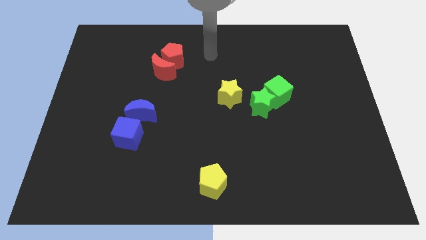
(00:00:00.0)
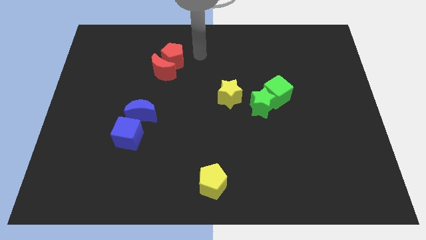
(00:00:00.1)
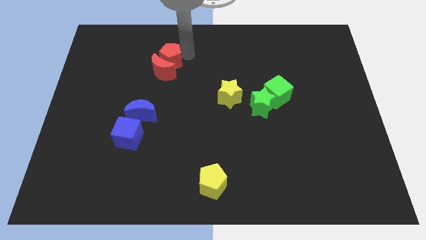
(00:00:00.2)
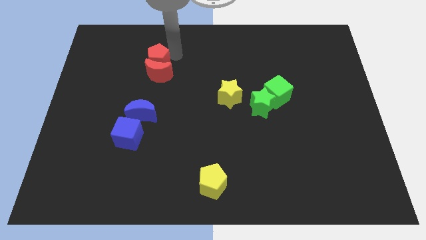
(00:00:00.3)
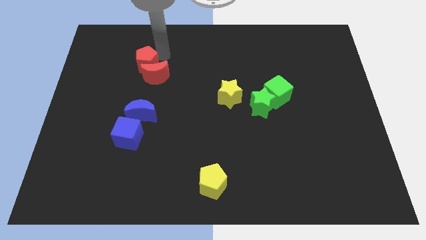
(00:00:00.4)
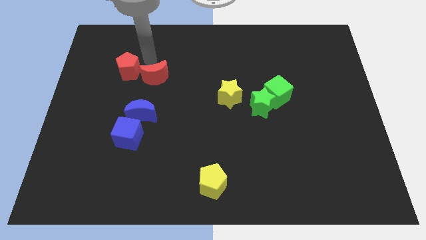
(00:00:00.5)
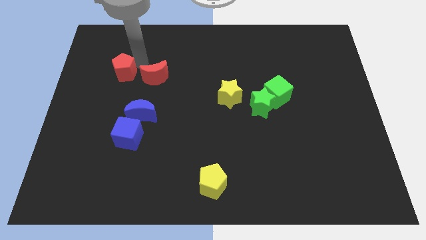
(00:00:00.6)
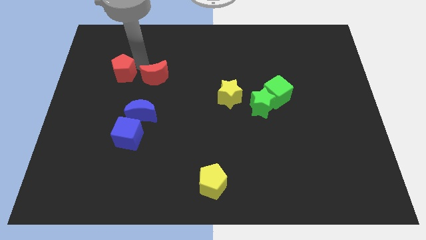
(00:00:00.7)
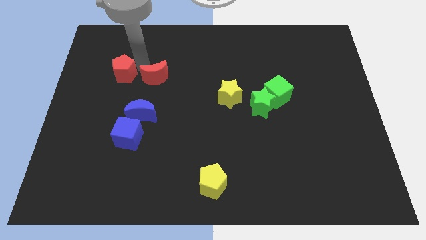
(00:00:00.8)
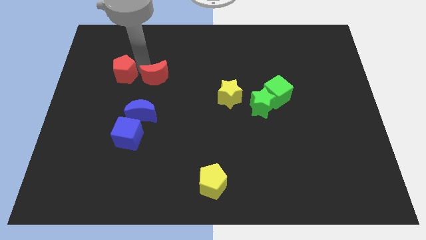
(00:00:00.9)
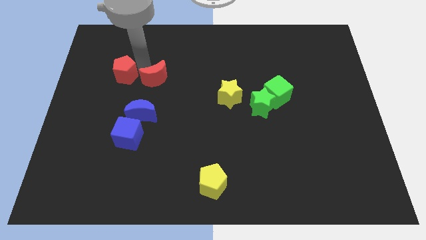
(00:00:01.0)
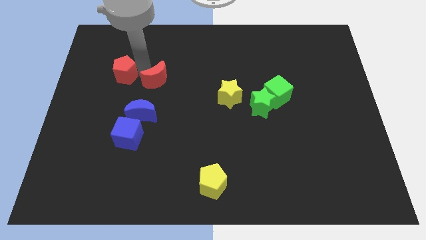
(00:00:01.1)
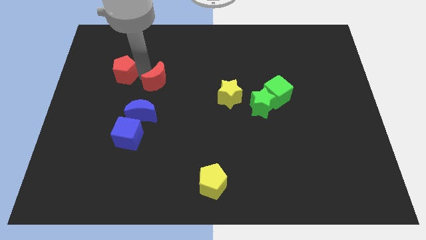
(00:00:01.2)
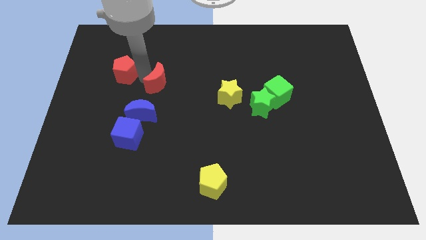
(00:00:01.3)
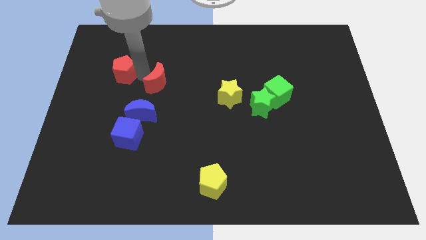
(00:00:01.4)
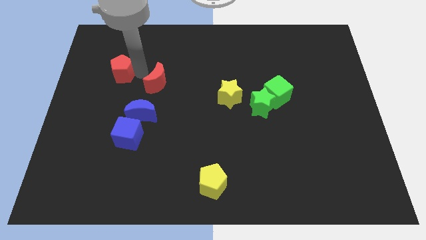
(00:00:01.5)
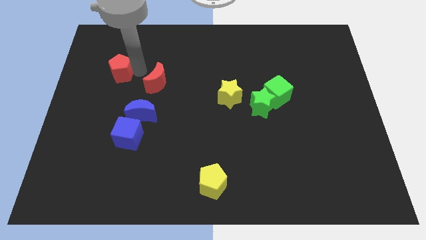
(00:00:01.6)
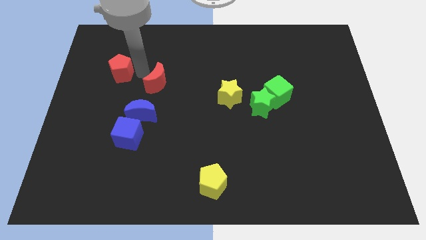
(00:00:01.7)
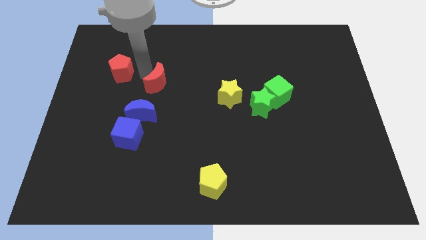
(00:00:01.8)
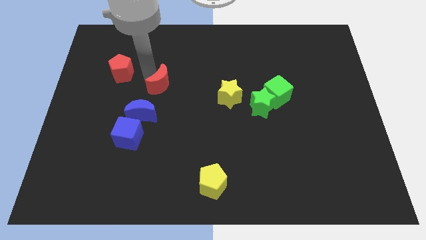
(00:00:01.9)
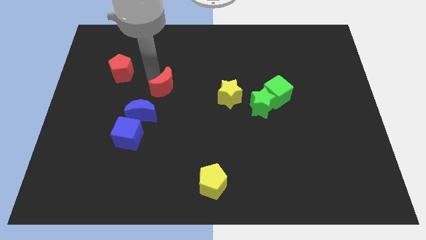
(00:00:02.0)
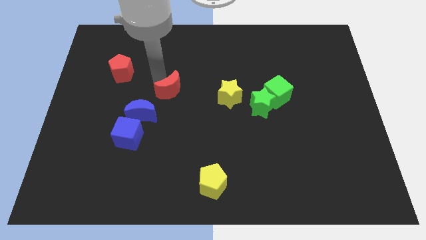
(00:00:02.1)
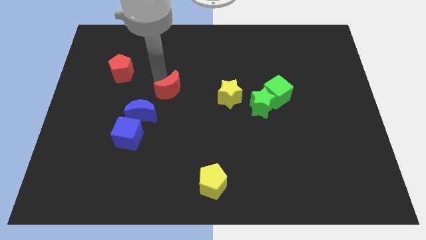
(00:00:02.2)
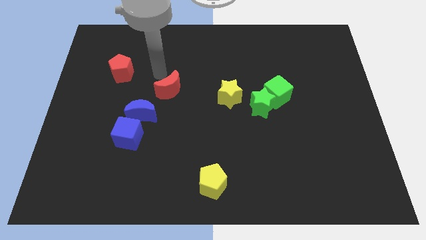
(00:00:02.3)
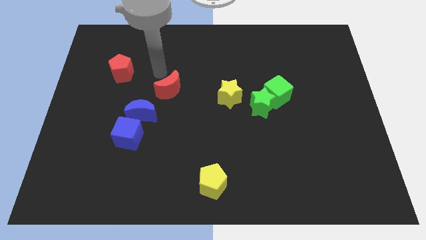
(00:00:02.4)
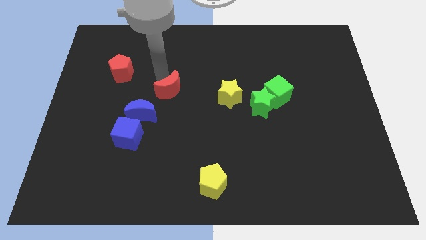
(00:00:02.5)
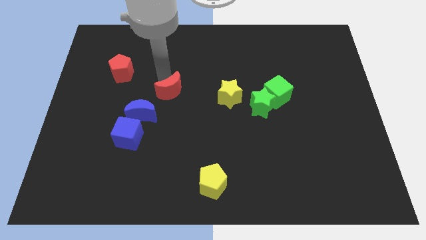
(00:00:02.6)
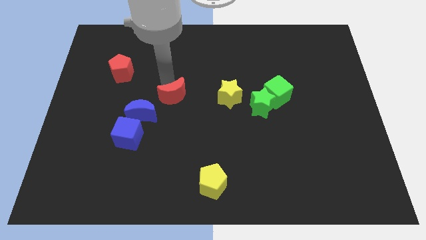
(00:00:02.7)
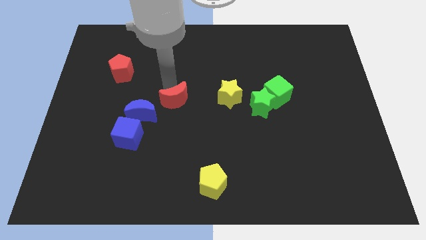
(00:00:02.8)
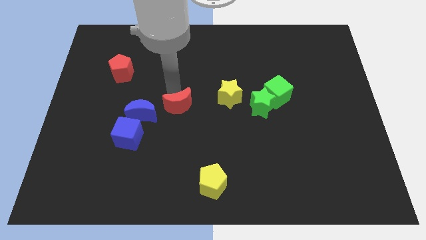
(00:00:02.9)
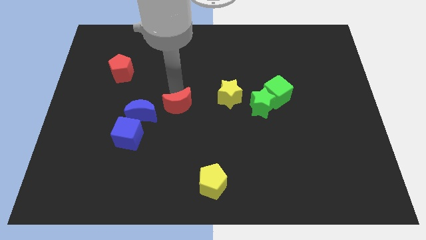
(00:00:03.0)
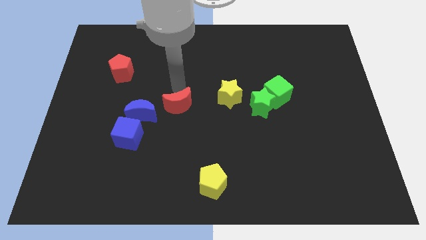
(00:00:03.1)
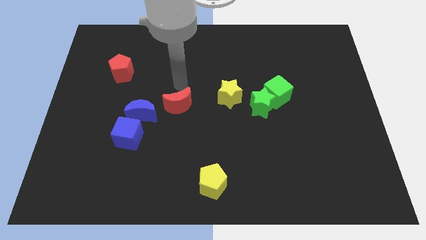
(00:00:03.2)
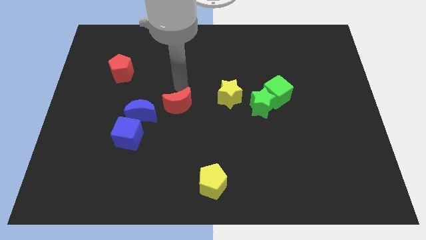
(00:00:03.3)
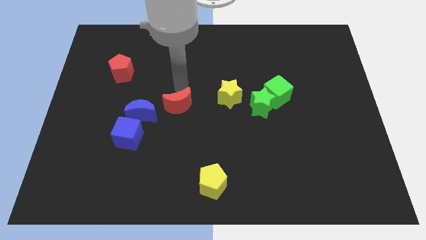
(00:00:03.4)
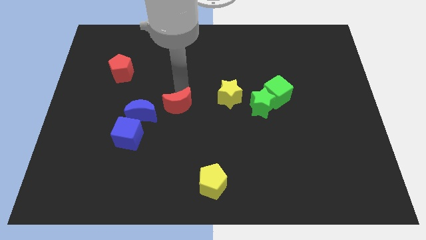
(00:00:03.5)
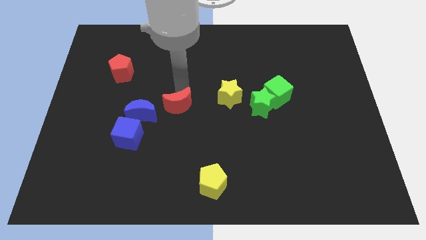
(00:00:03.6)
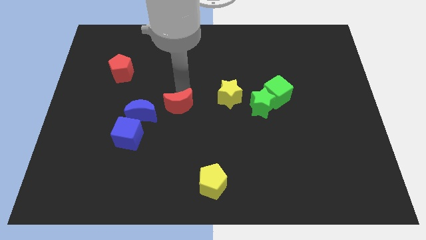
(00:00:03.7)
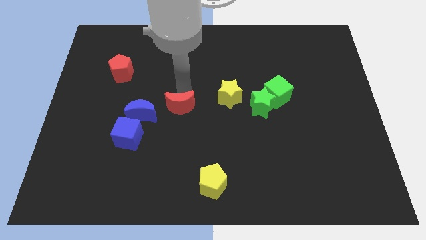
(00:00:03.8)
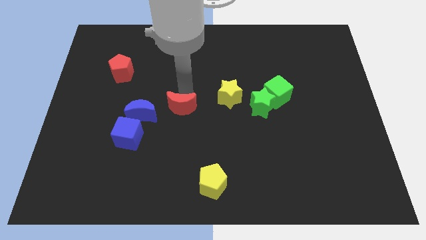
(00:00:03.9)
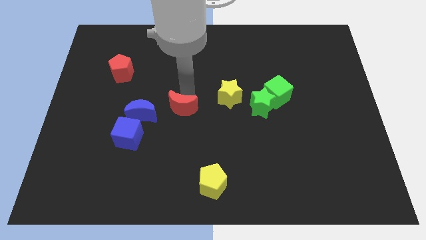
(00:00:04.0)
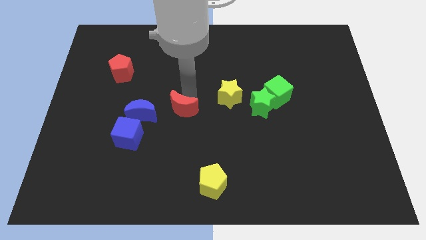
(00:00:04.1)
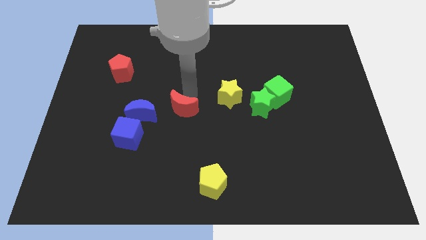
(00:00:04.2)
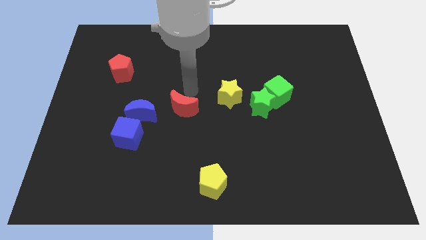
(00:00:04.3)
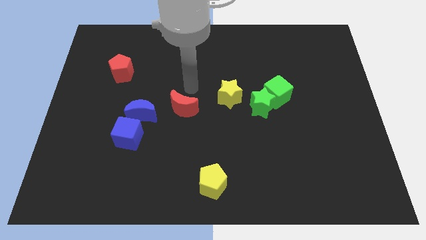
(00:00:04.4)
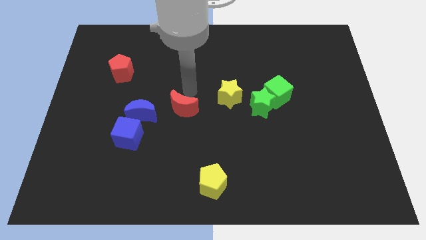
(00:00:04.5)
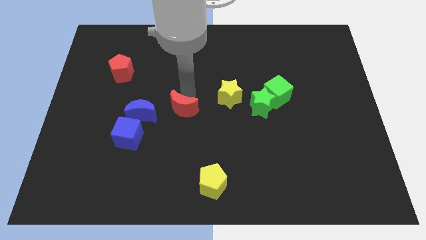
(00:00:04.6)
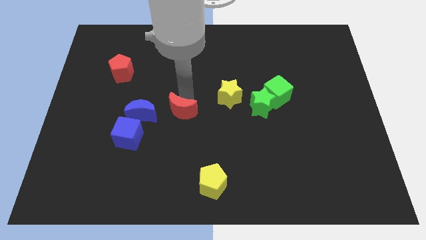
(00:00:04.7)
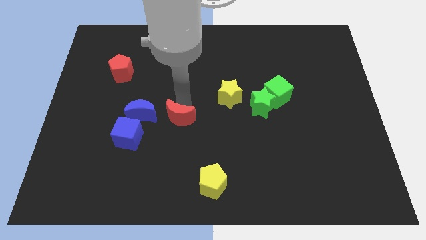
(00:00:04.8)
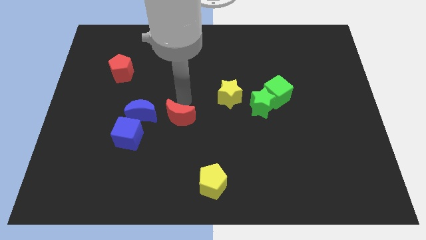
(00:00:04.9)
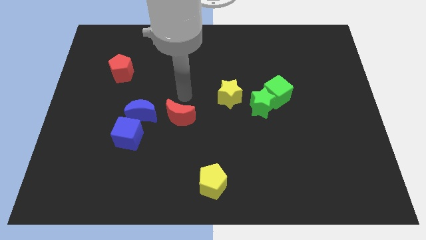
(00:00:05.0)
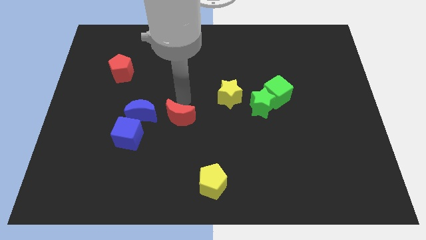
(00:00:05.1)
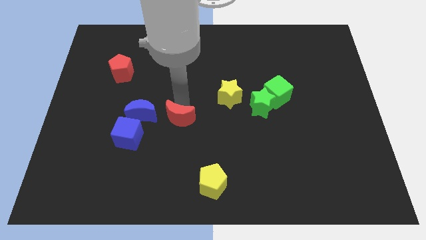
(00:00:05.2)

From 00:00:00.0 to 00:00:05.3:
push the red moon to the right side of the blue cube

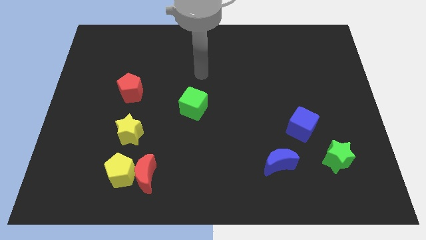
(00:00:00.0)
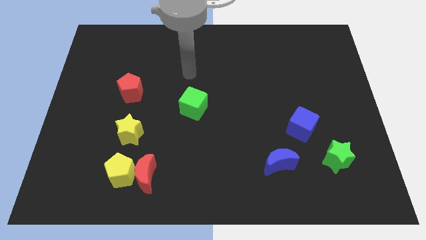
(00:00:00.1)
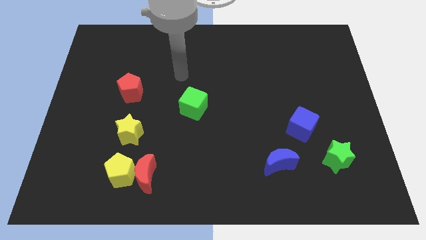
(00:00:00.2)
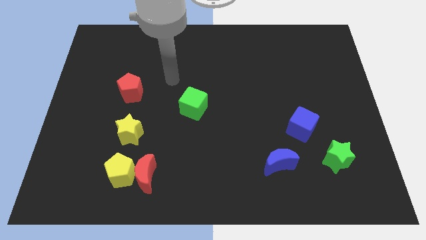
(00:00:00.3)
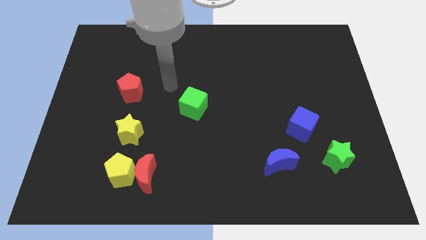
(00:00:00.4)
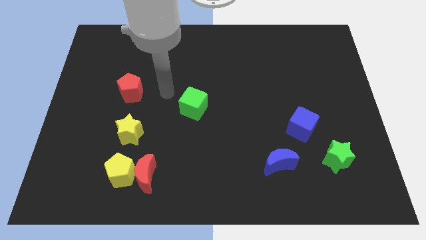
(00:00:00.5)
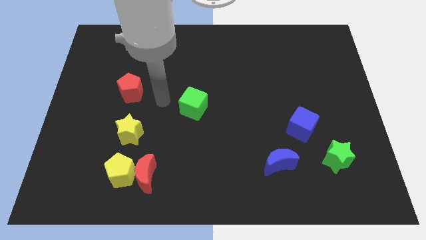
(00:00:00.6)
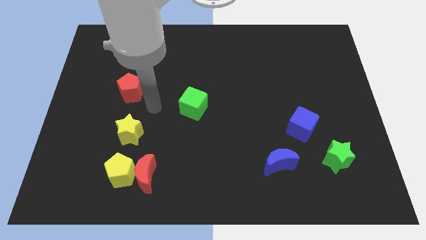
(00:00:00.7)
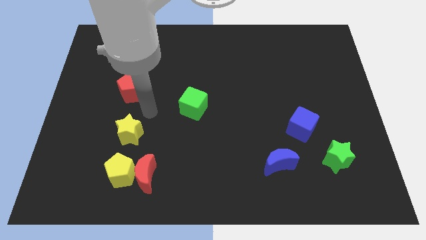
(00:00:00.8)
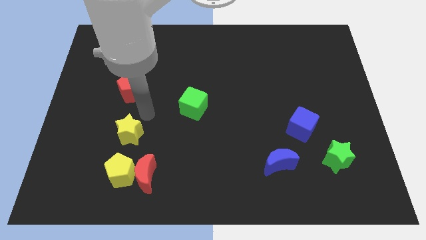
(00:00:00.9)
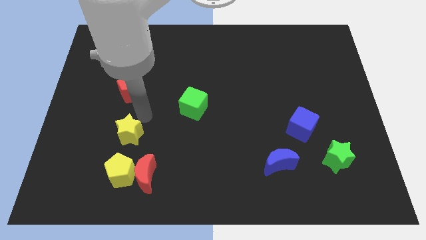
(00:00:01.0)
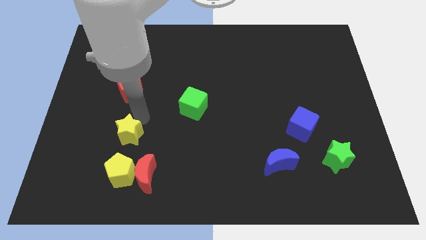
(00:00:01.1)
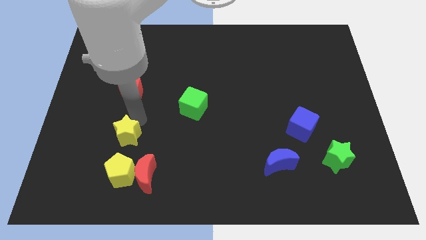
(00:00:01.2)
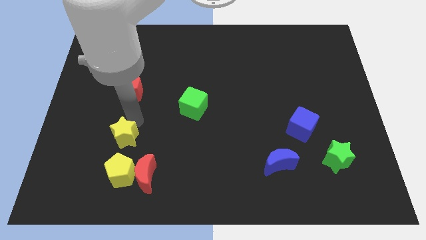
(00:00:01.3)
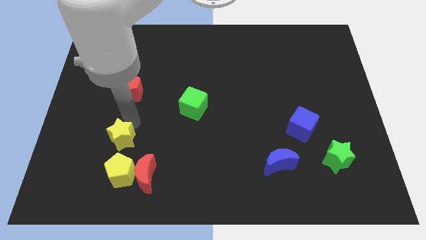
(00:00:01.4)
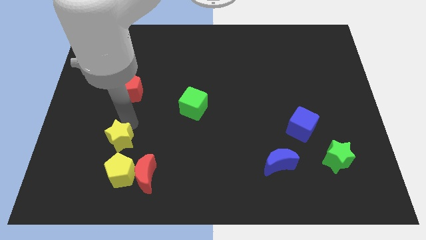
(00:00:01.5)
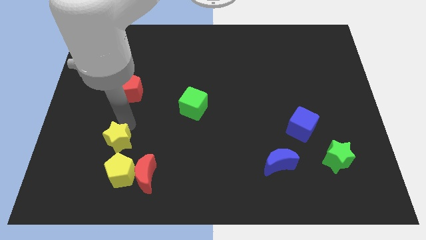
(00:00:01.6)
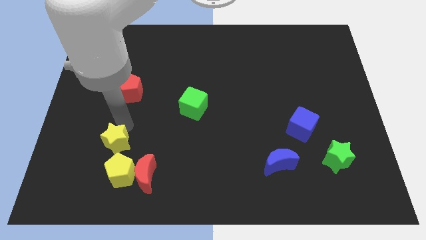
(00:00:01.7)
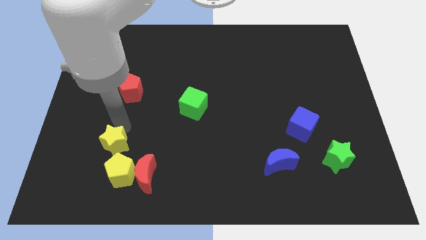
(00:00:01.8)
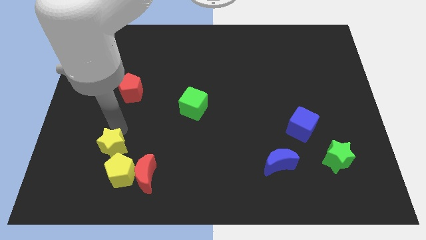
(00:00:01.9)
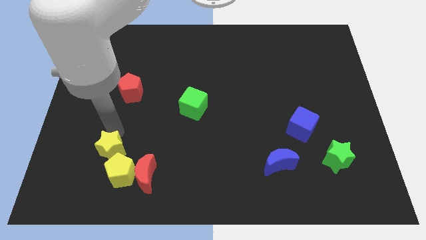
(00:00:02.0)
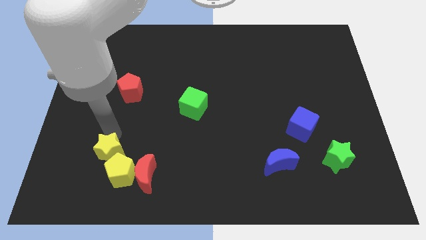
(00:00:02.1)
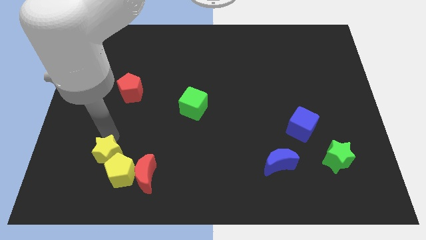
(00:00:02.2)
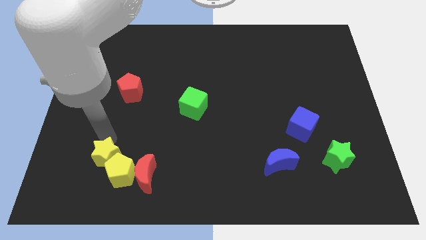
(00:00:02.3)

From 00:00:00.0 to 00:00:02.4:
push the yellow star left of the red moon
